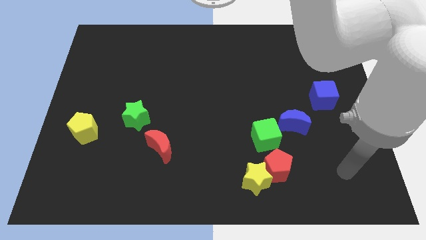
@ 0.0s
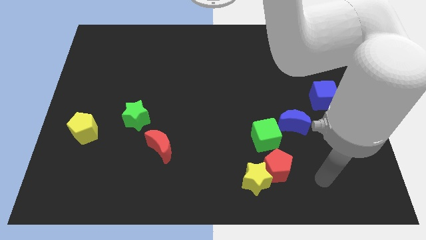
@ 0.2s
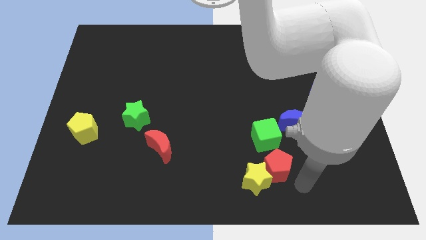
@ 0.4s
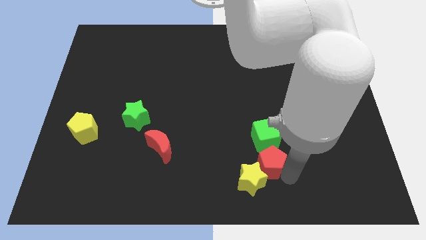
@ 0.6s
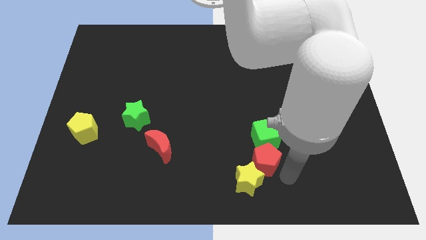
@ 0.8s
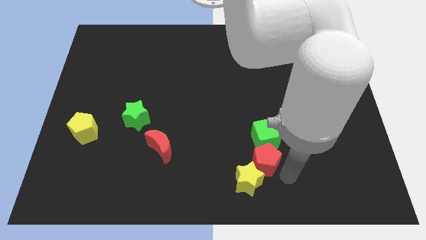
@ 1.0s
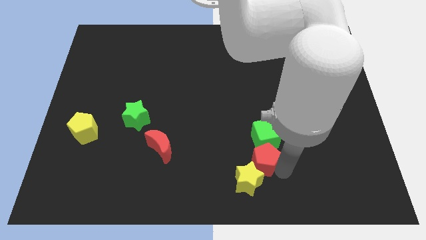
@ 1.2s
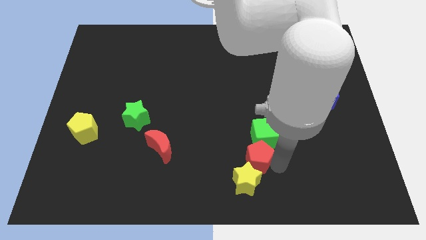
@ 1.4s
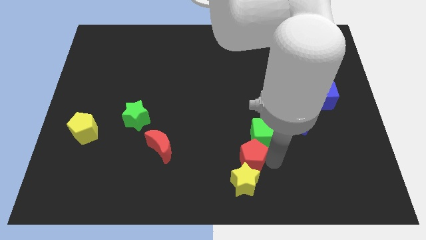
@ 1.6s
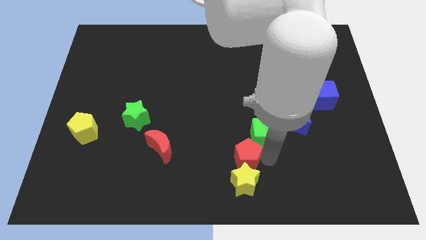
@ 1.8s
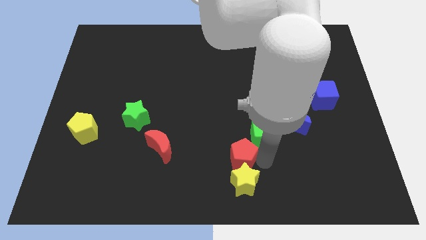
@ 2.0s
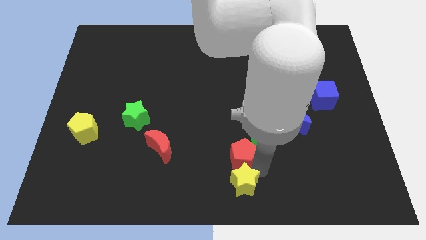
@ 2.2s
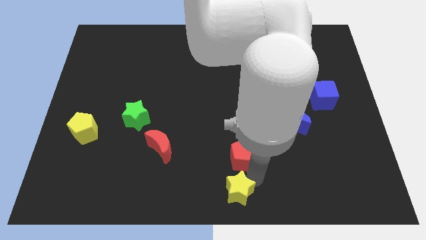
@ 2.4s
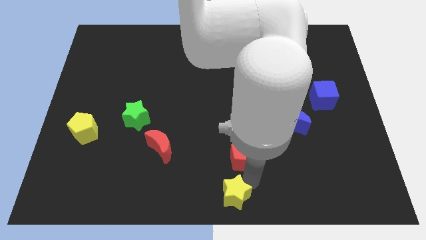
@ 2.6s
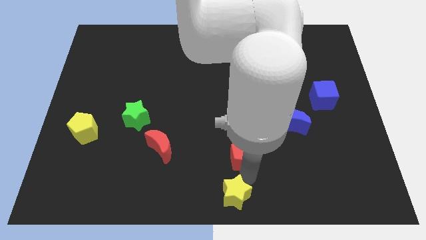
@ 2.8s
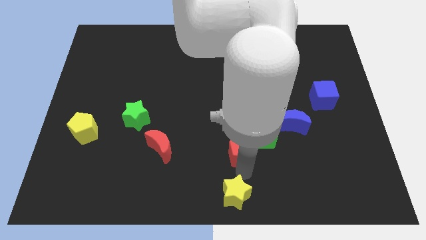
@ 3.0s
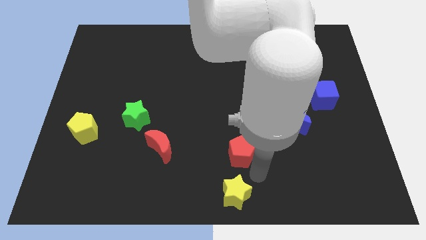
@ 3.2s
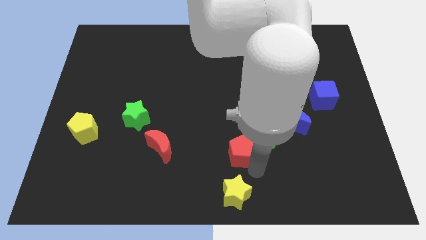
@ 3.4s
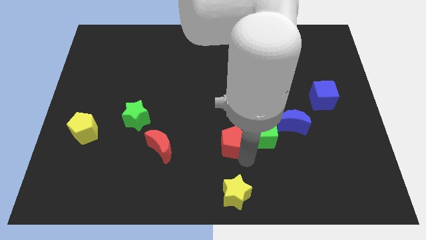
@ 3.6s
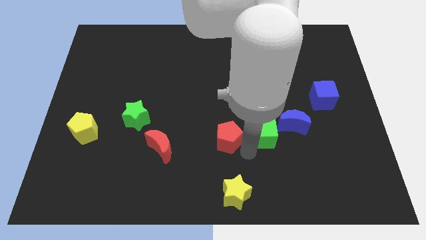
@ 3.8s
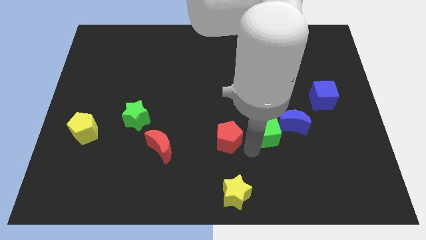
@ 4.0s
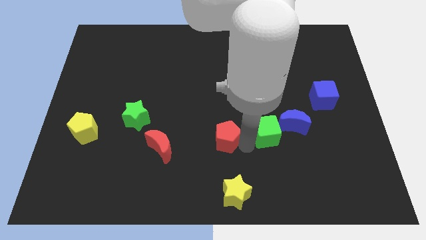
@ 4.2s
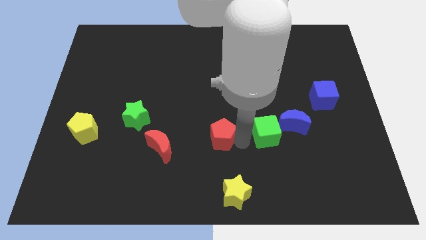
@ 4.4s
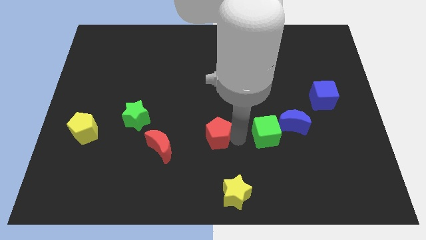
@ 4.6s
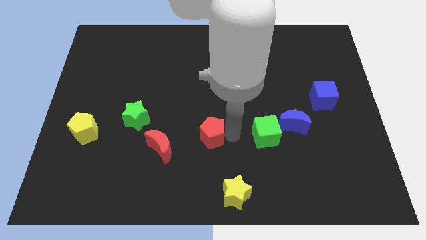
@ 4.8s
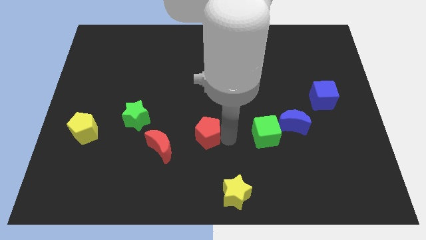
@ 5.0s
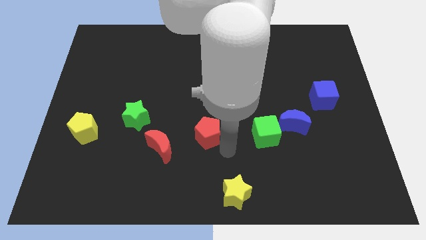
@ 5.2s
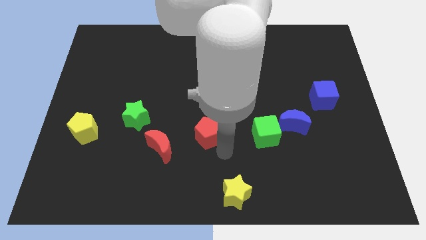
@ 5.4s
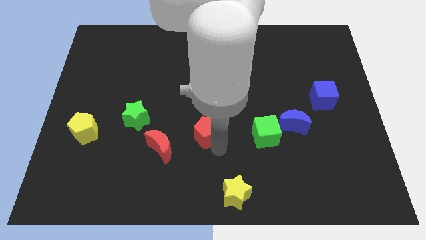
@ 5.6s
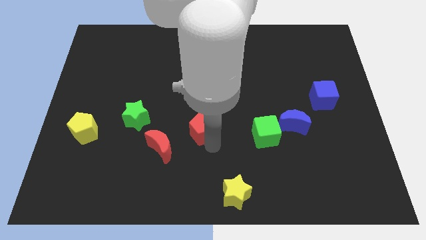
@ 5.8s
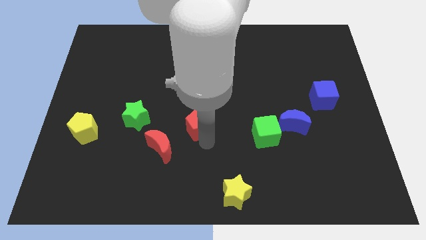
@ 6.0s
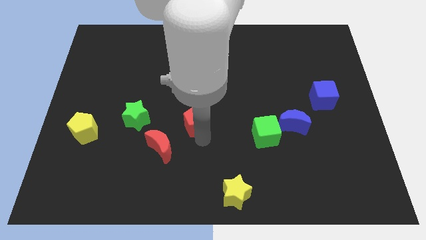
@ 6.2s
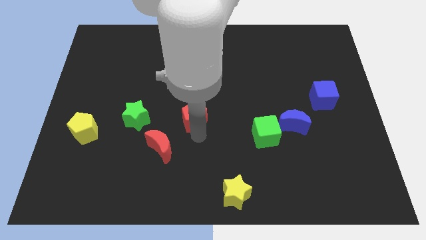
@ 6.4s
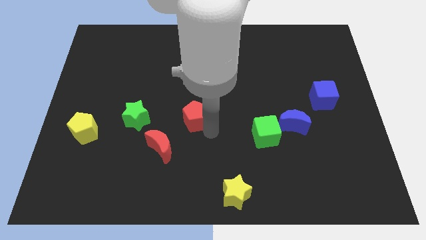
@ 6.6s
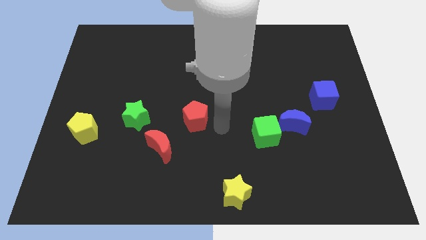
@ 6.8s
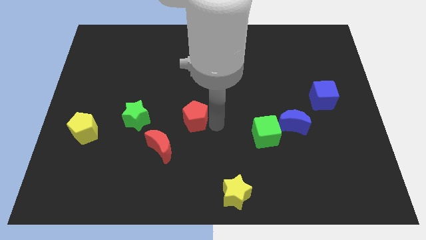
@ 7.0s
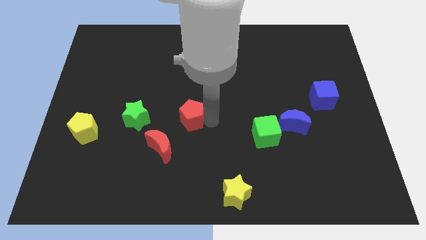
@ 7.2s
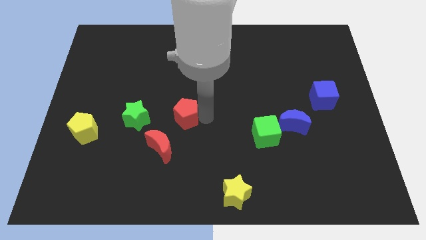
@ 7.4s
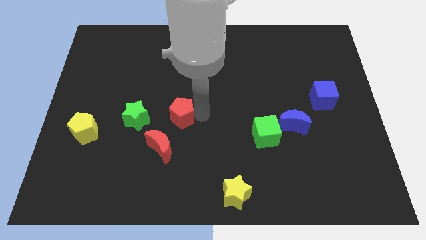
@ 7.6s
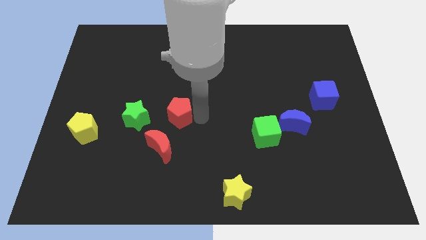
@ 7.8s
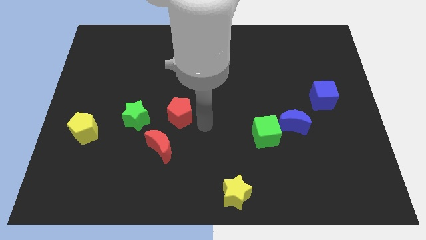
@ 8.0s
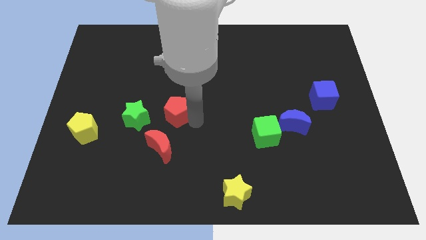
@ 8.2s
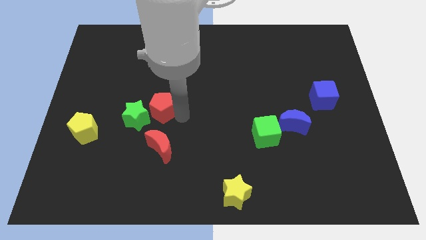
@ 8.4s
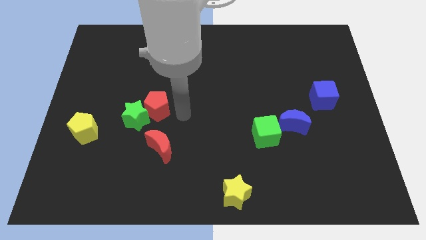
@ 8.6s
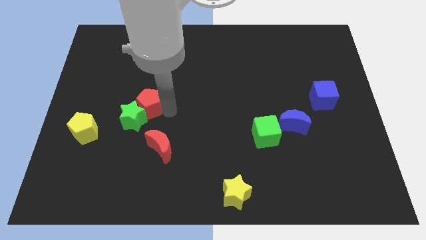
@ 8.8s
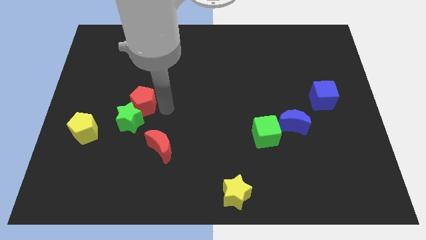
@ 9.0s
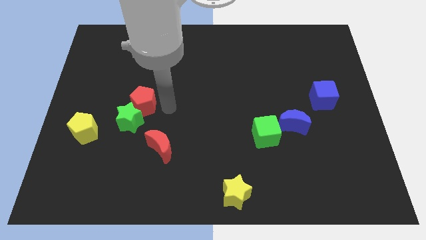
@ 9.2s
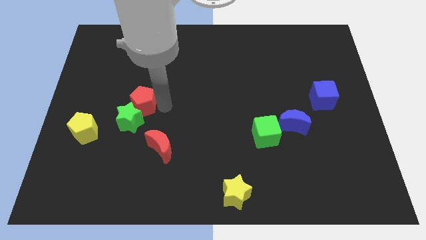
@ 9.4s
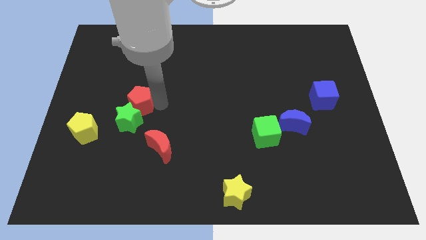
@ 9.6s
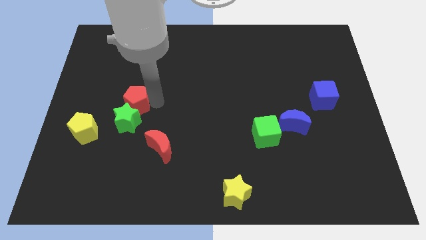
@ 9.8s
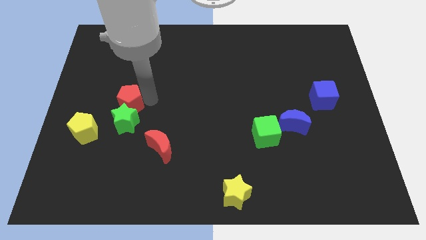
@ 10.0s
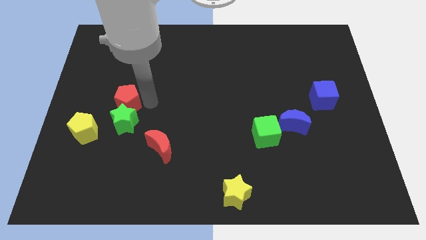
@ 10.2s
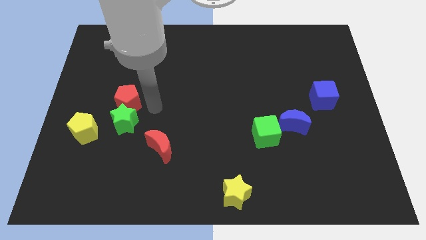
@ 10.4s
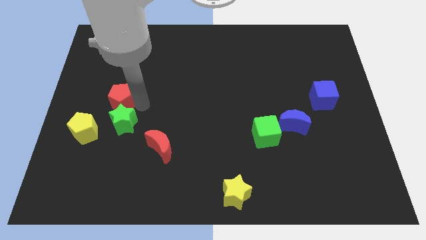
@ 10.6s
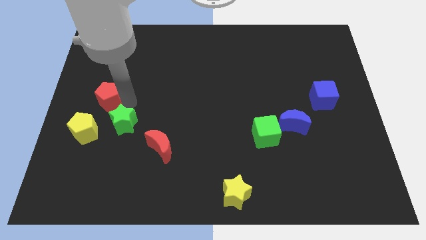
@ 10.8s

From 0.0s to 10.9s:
move the red pentagon to the center left

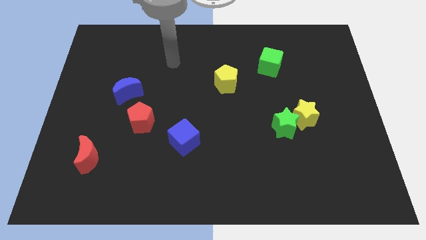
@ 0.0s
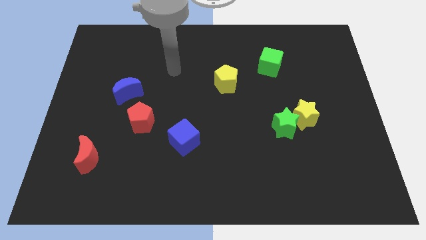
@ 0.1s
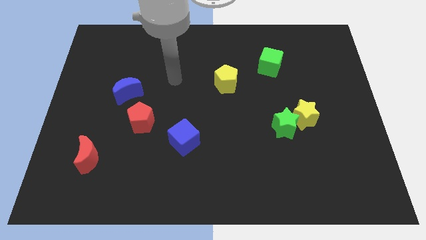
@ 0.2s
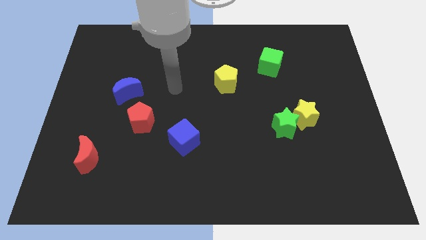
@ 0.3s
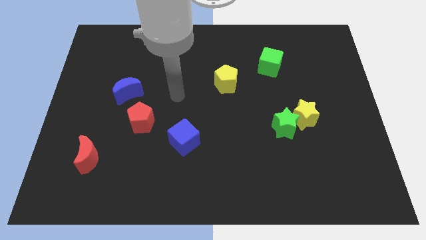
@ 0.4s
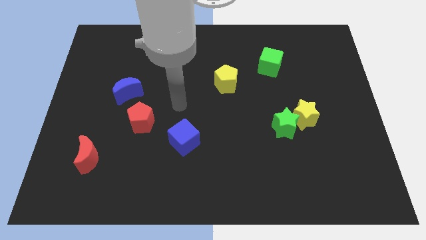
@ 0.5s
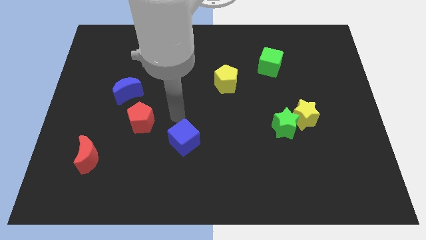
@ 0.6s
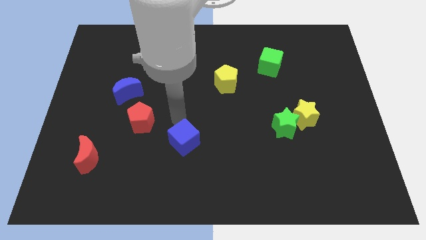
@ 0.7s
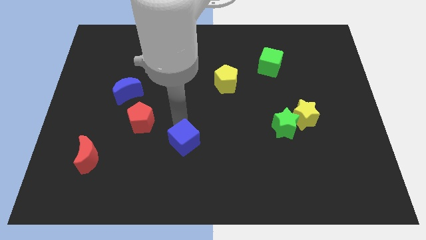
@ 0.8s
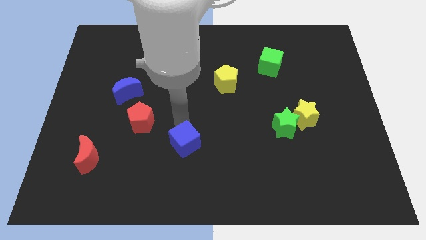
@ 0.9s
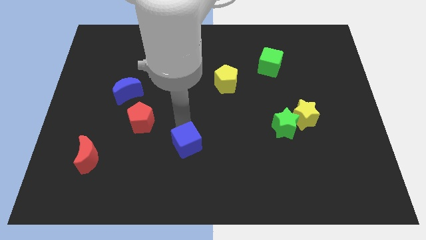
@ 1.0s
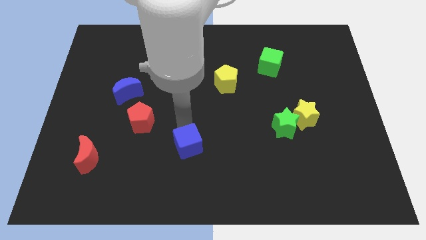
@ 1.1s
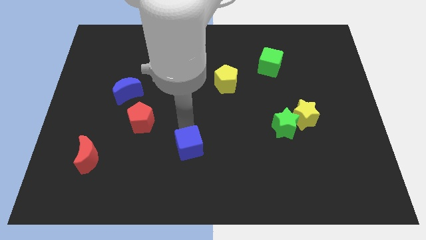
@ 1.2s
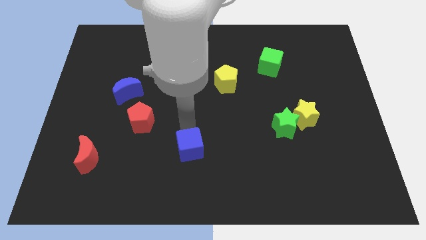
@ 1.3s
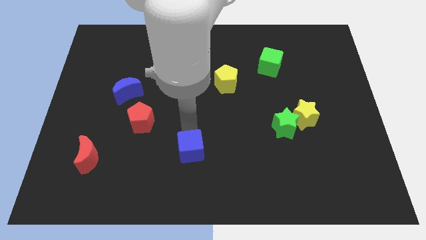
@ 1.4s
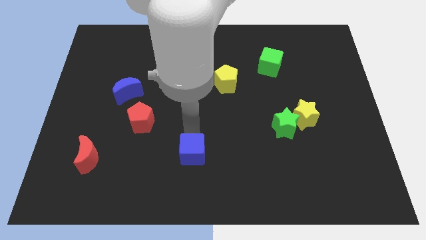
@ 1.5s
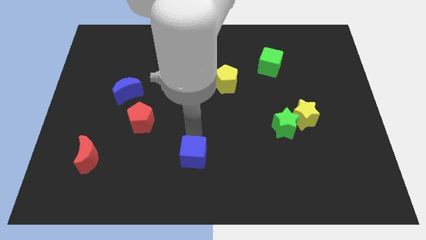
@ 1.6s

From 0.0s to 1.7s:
put the blue cube to the bottom
